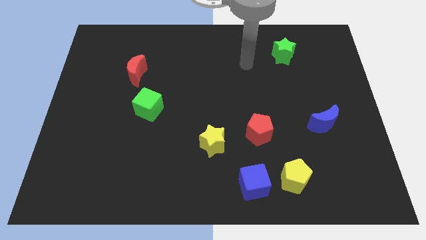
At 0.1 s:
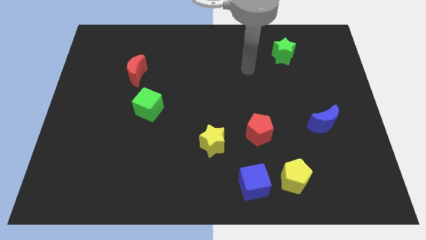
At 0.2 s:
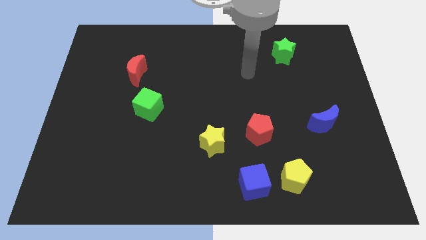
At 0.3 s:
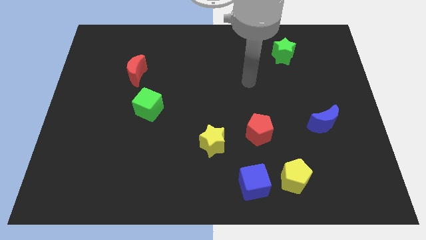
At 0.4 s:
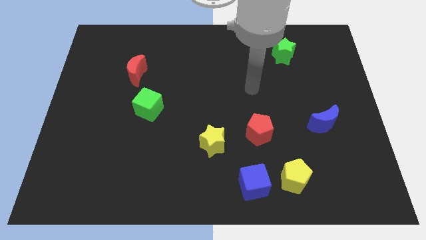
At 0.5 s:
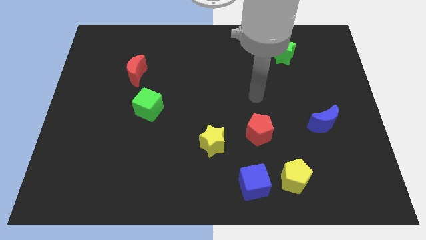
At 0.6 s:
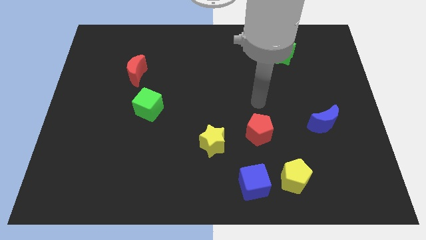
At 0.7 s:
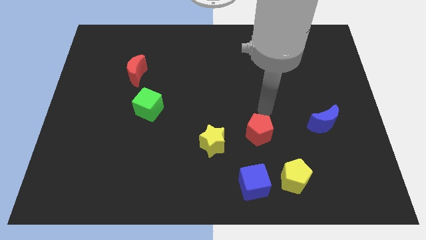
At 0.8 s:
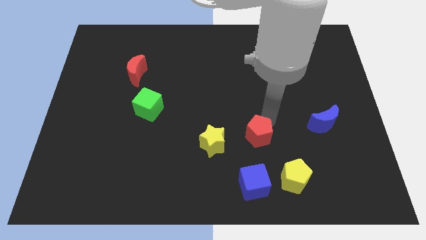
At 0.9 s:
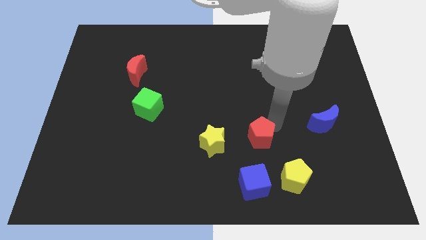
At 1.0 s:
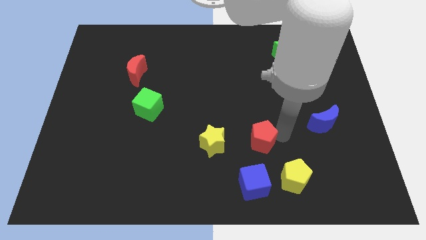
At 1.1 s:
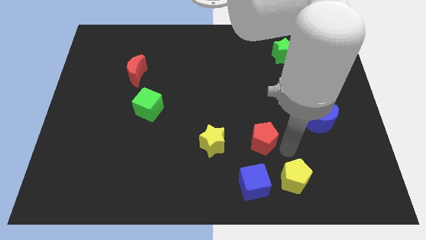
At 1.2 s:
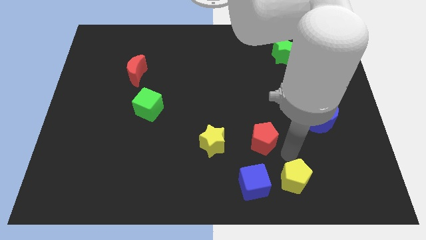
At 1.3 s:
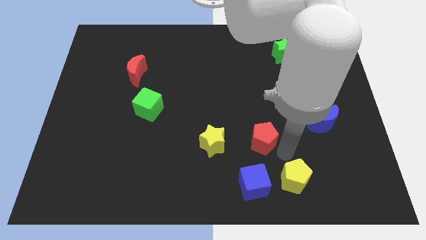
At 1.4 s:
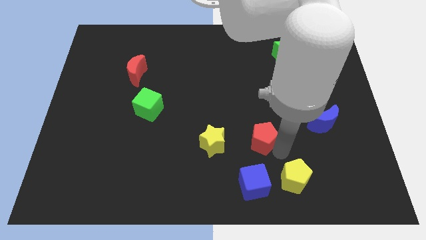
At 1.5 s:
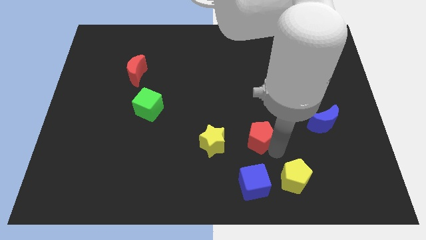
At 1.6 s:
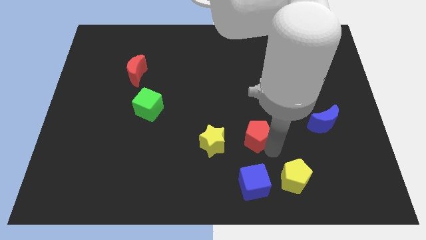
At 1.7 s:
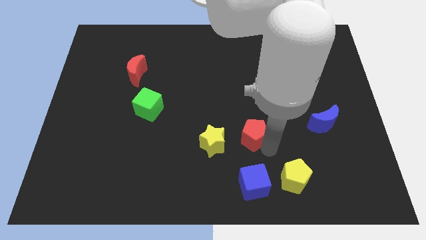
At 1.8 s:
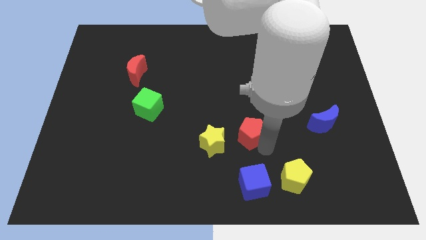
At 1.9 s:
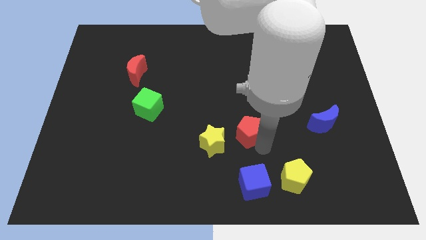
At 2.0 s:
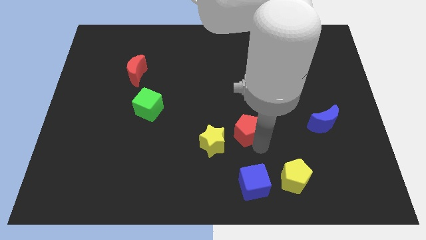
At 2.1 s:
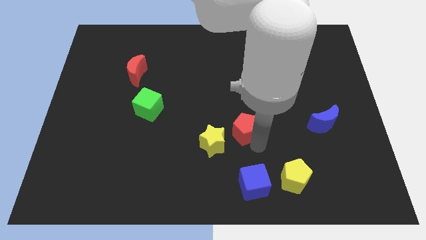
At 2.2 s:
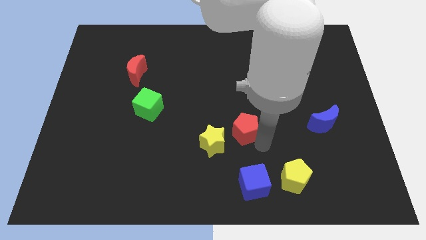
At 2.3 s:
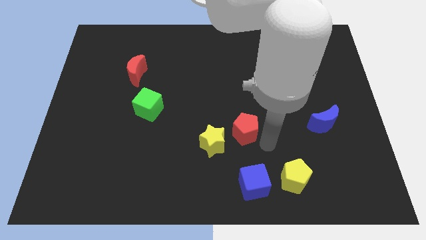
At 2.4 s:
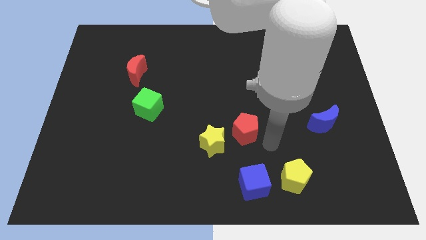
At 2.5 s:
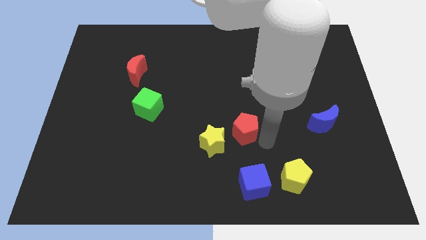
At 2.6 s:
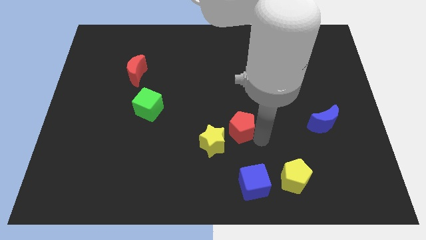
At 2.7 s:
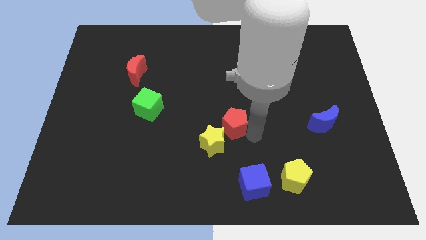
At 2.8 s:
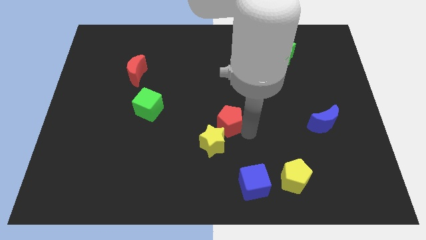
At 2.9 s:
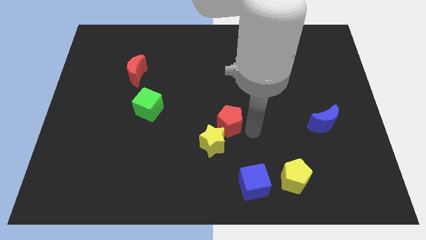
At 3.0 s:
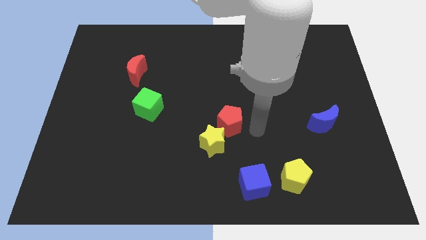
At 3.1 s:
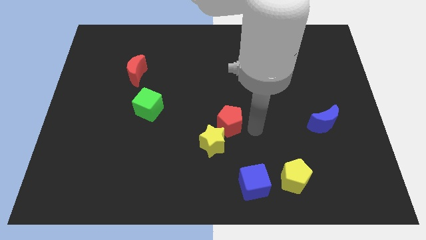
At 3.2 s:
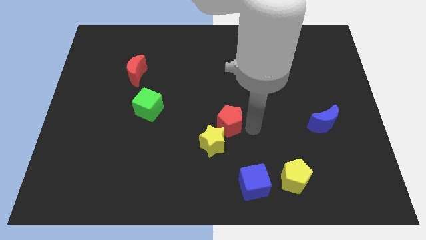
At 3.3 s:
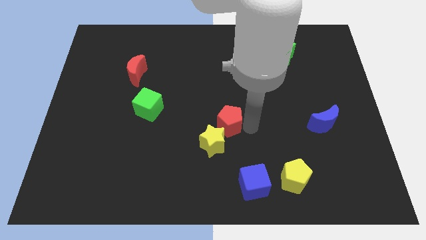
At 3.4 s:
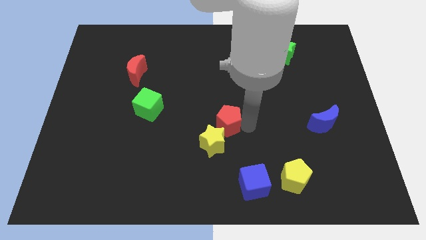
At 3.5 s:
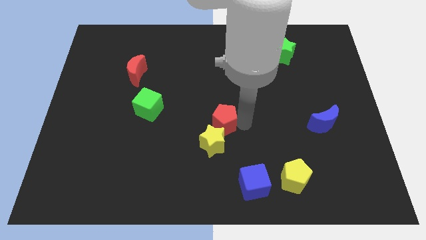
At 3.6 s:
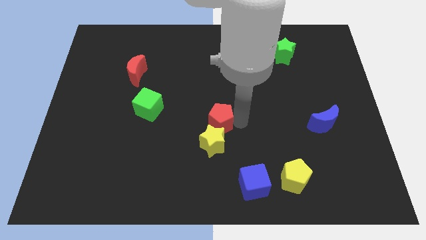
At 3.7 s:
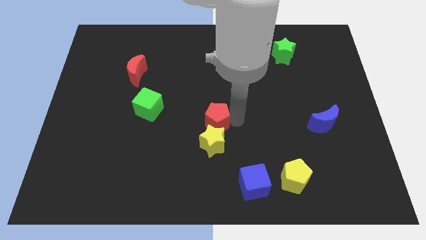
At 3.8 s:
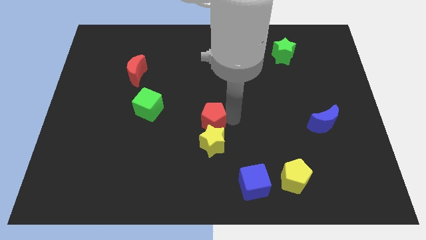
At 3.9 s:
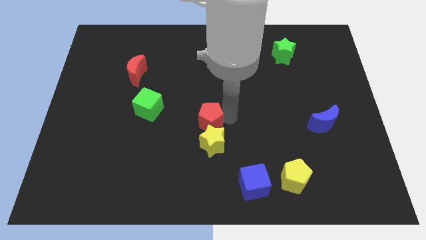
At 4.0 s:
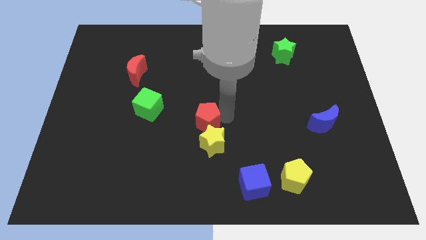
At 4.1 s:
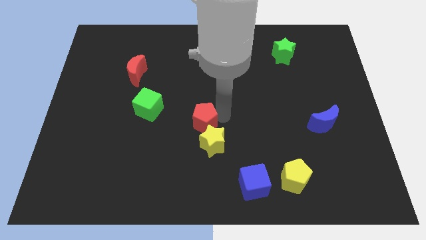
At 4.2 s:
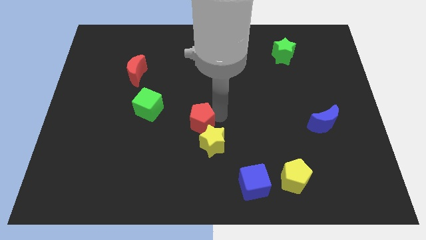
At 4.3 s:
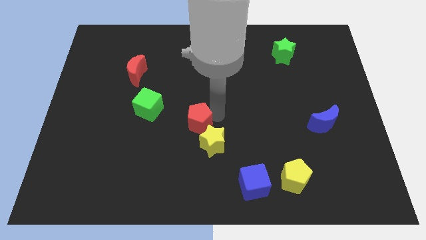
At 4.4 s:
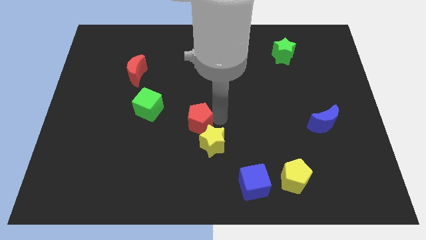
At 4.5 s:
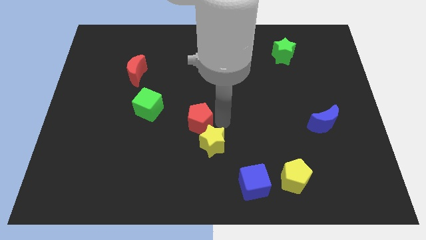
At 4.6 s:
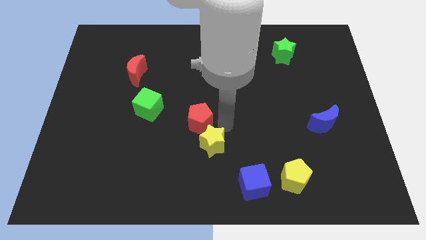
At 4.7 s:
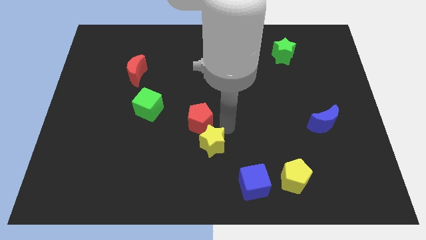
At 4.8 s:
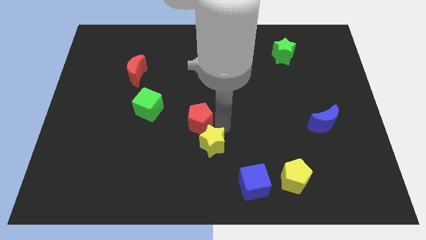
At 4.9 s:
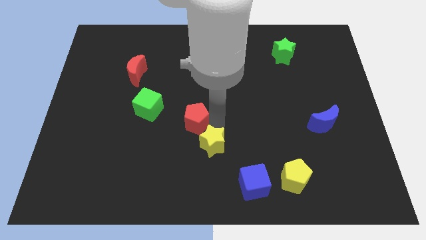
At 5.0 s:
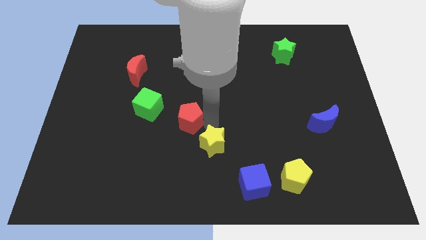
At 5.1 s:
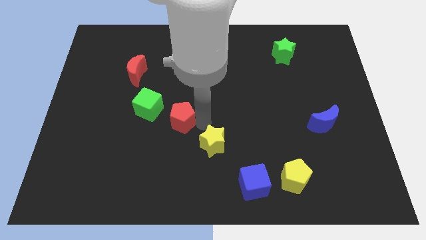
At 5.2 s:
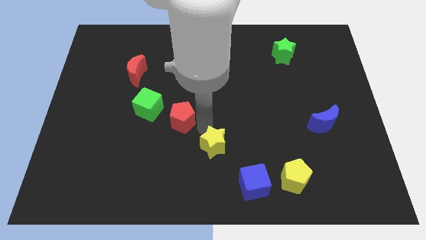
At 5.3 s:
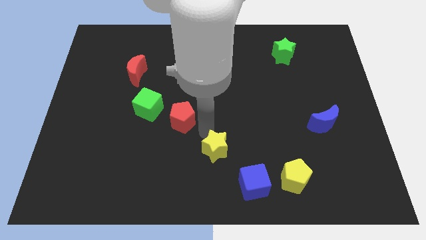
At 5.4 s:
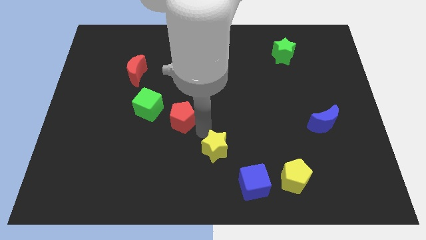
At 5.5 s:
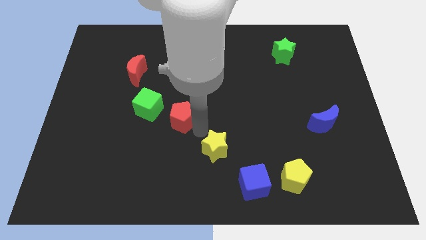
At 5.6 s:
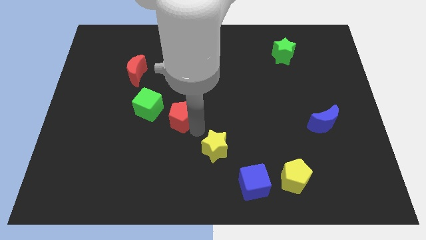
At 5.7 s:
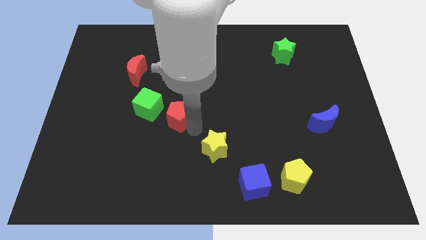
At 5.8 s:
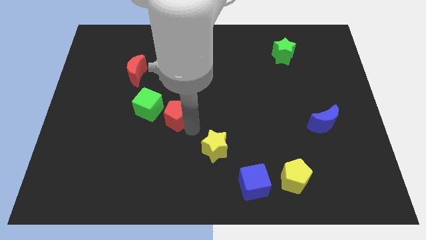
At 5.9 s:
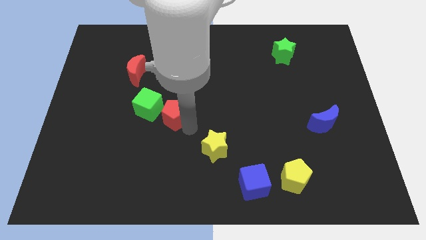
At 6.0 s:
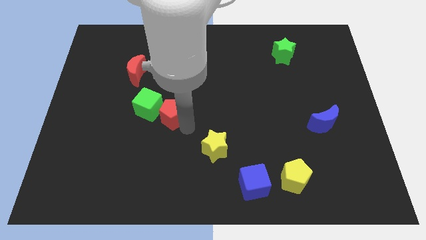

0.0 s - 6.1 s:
slide the red pentagon to the green cube

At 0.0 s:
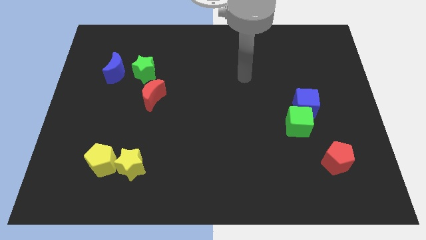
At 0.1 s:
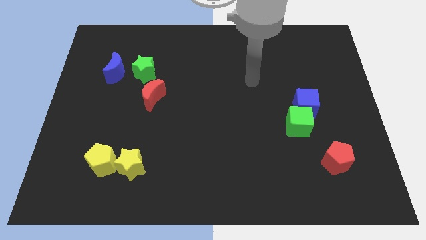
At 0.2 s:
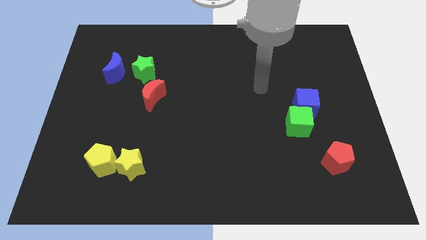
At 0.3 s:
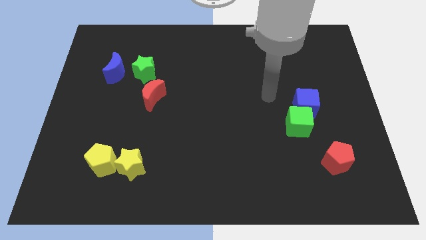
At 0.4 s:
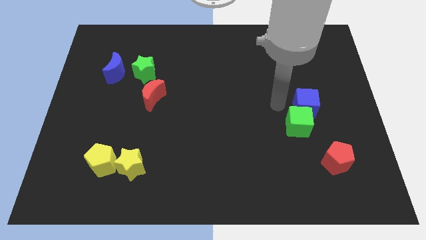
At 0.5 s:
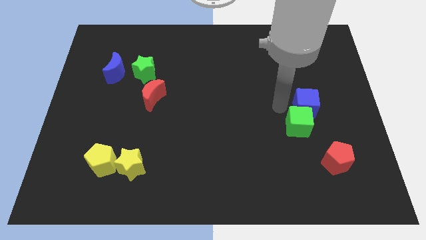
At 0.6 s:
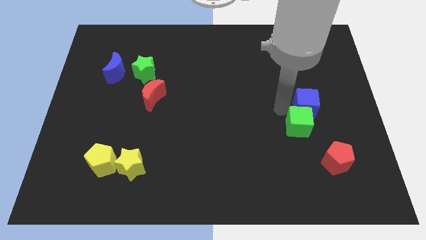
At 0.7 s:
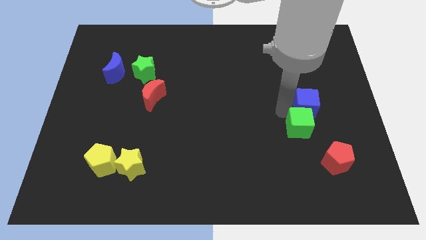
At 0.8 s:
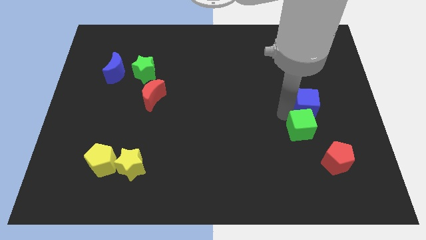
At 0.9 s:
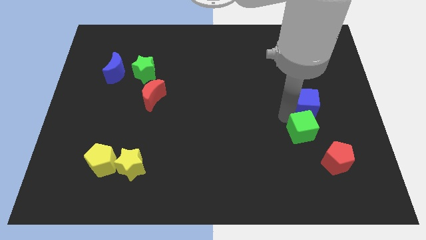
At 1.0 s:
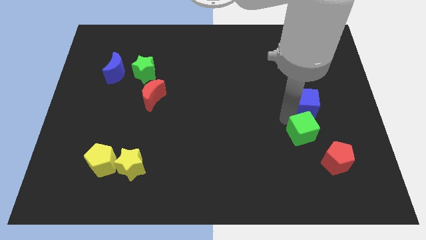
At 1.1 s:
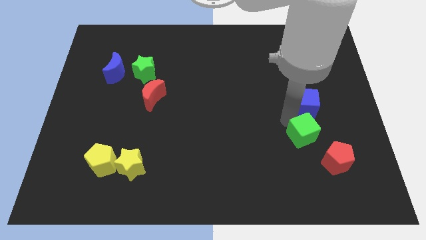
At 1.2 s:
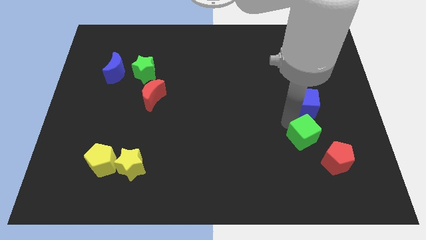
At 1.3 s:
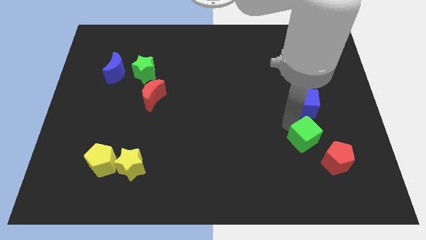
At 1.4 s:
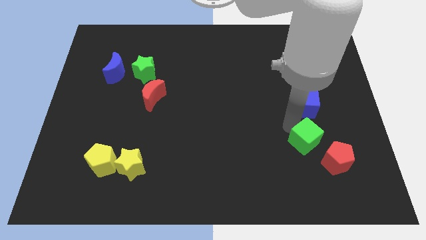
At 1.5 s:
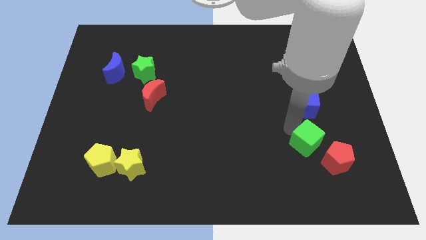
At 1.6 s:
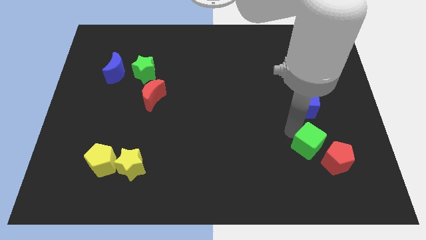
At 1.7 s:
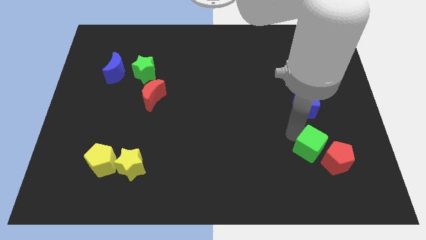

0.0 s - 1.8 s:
put the green cube towards the red pentagon
